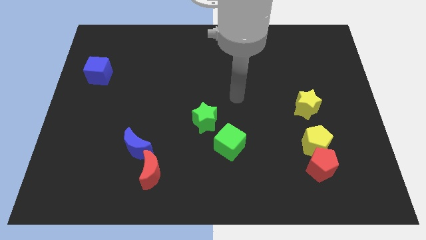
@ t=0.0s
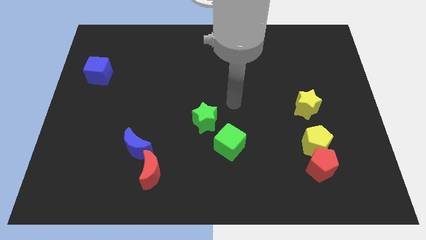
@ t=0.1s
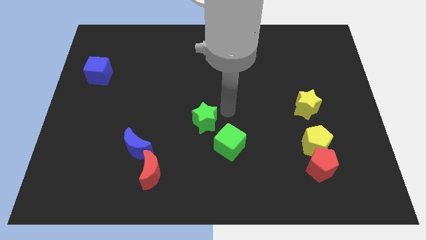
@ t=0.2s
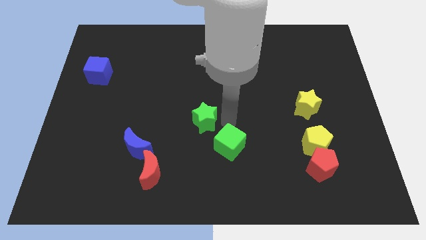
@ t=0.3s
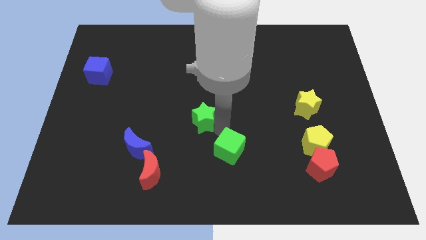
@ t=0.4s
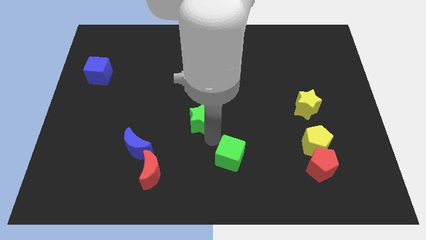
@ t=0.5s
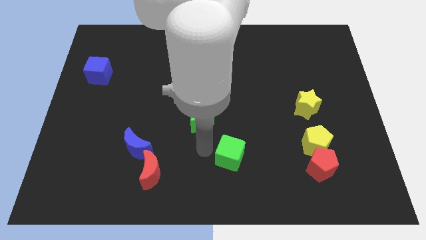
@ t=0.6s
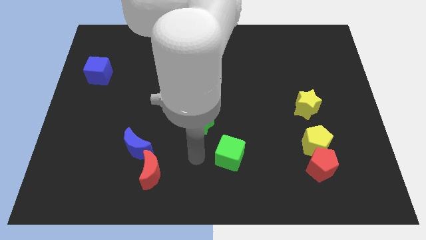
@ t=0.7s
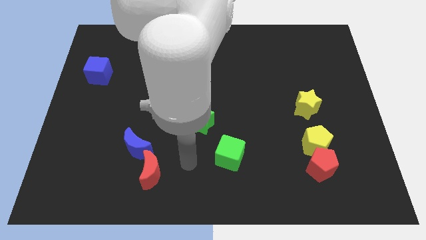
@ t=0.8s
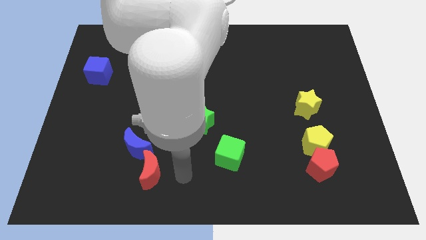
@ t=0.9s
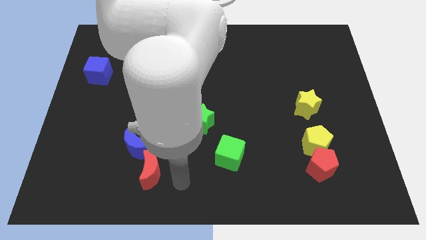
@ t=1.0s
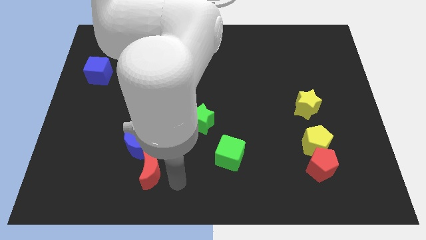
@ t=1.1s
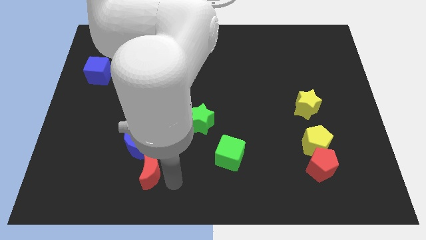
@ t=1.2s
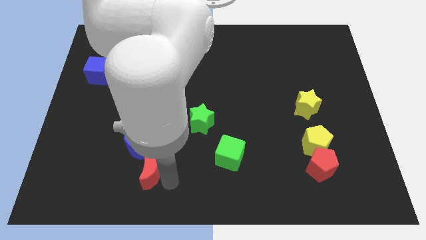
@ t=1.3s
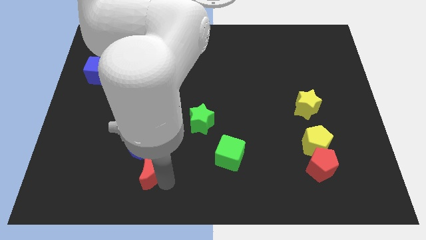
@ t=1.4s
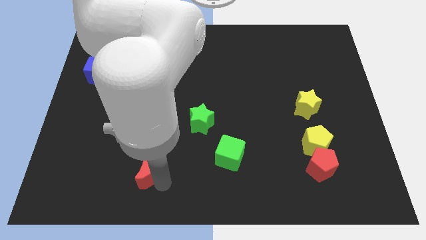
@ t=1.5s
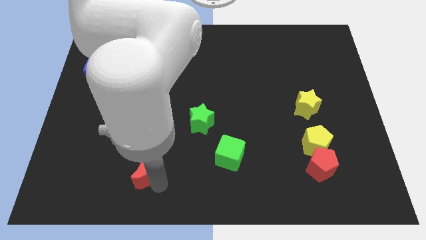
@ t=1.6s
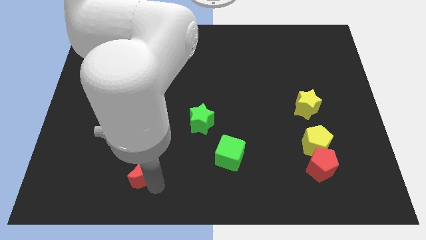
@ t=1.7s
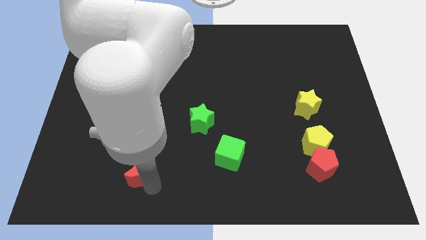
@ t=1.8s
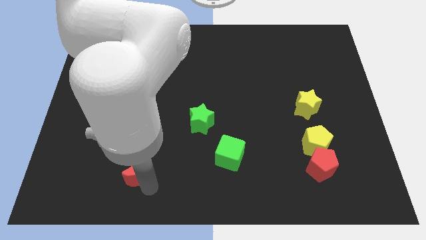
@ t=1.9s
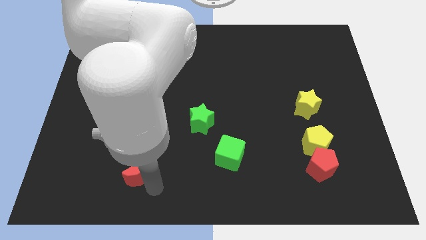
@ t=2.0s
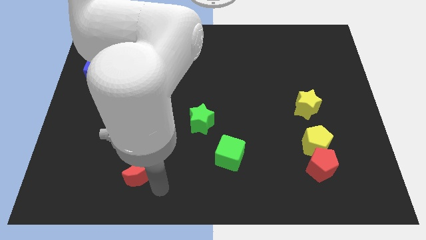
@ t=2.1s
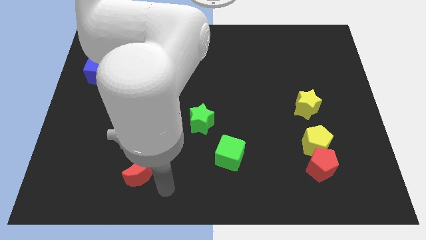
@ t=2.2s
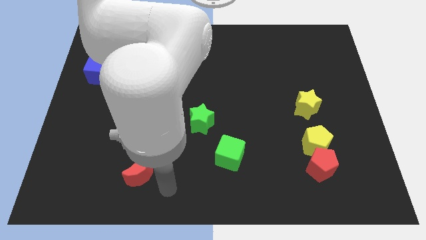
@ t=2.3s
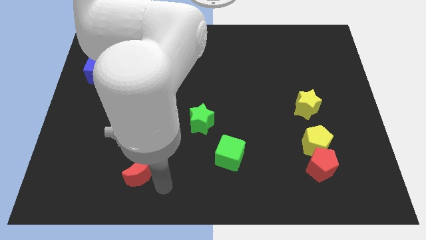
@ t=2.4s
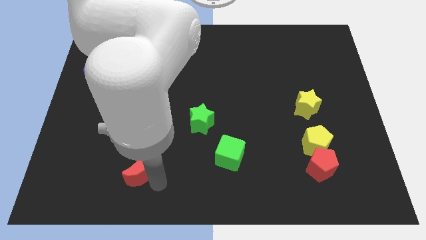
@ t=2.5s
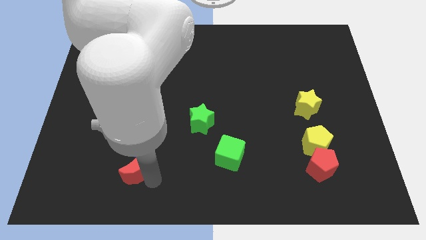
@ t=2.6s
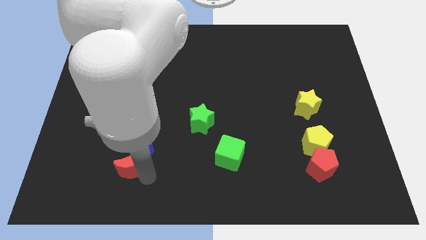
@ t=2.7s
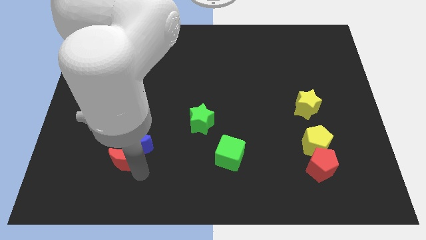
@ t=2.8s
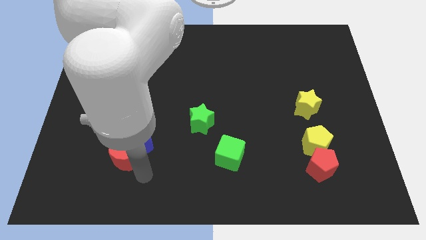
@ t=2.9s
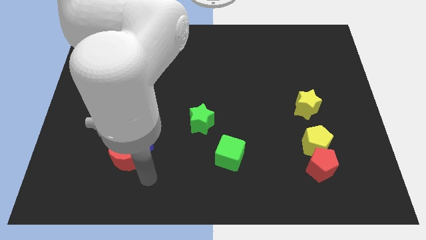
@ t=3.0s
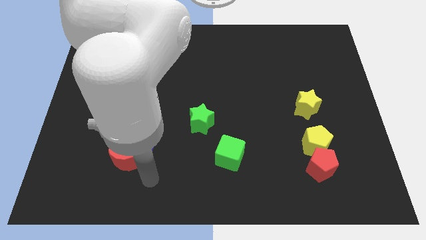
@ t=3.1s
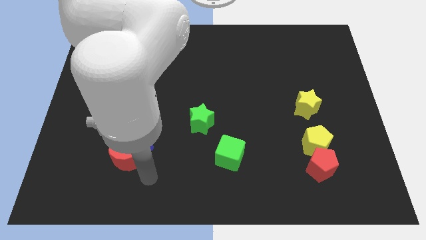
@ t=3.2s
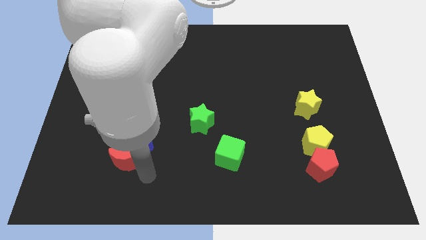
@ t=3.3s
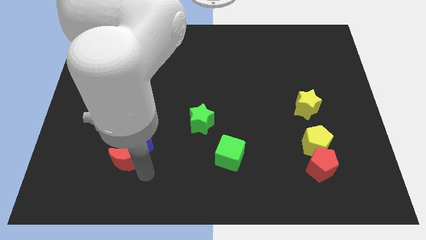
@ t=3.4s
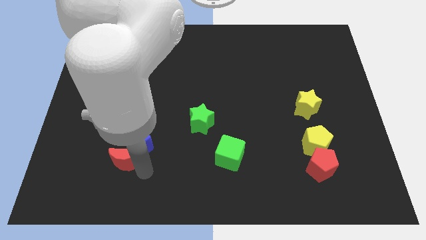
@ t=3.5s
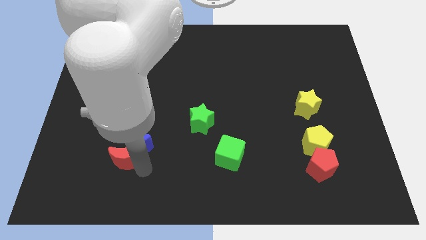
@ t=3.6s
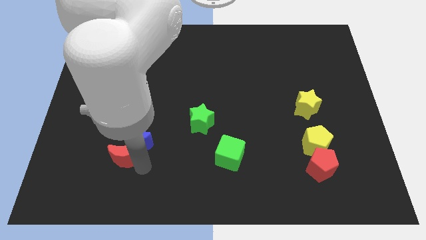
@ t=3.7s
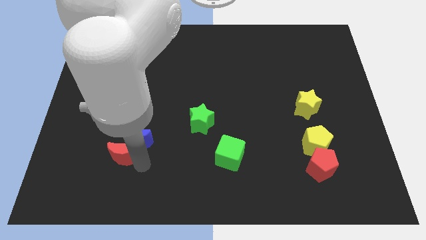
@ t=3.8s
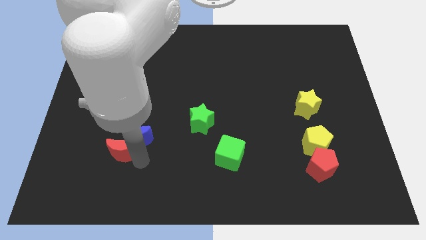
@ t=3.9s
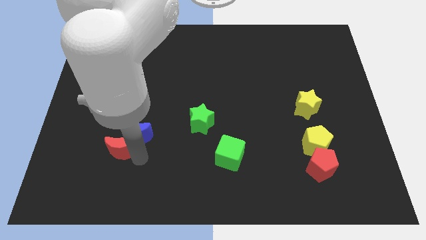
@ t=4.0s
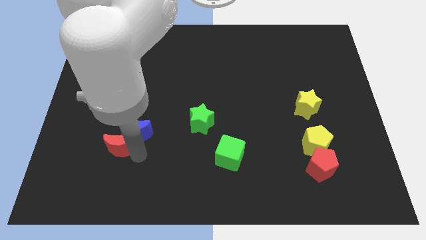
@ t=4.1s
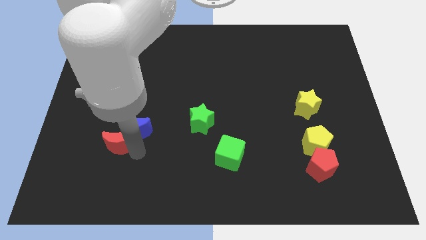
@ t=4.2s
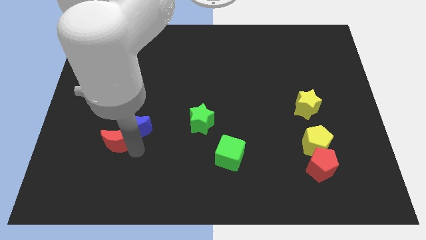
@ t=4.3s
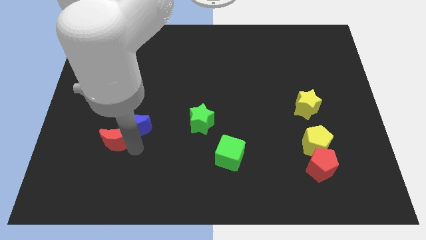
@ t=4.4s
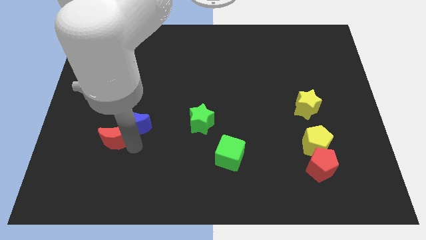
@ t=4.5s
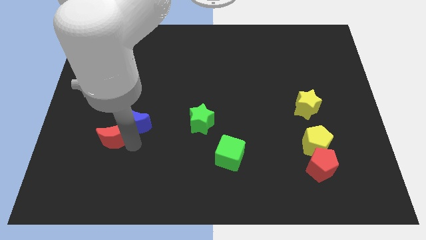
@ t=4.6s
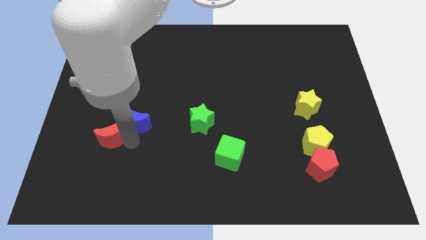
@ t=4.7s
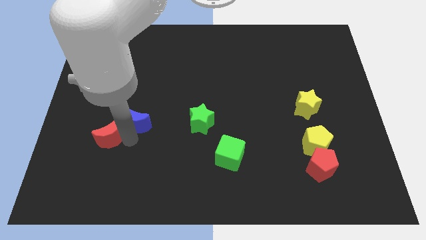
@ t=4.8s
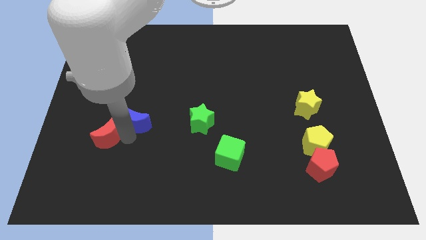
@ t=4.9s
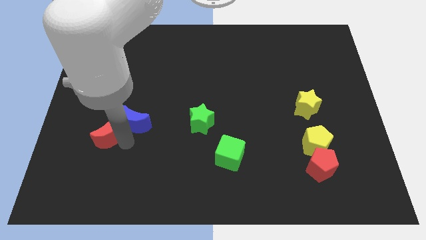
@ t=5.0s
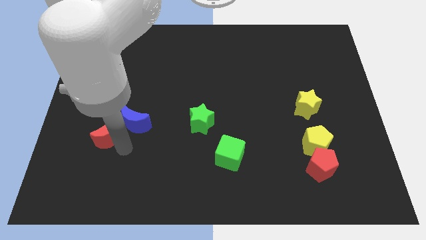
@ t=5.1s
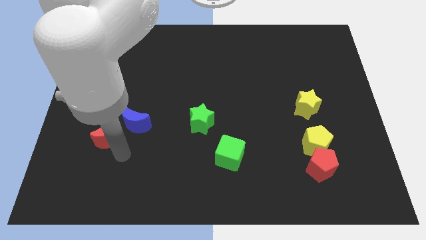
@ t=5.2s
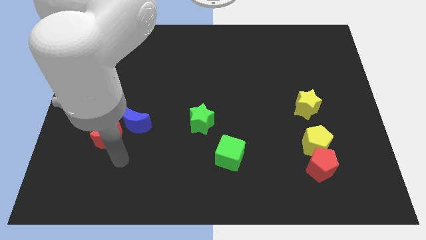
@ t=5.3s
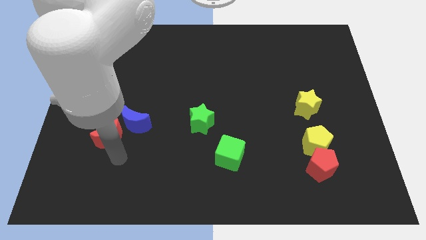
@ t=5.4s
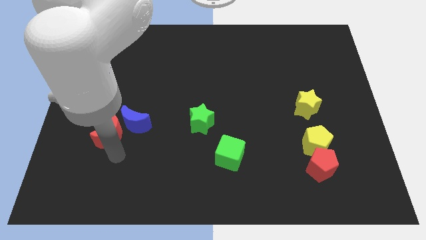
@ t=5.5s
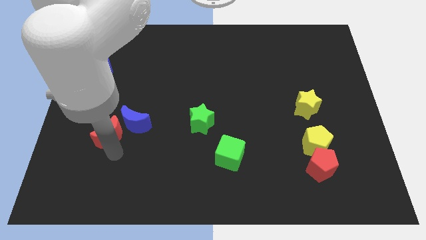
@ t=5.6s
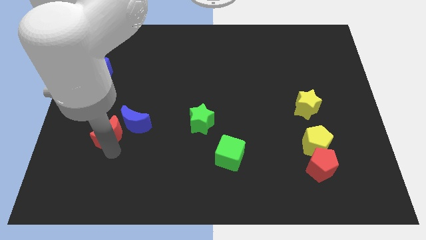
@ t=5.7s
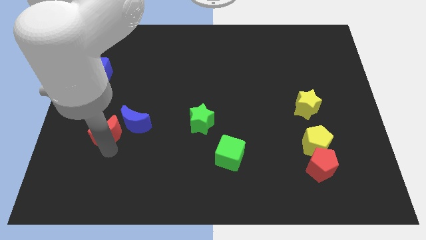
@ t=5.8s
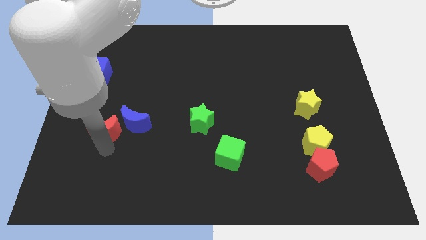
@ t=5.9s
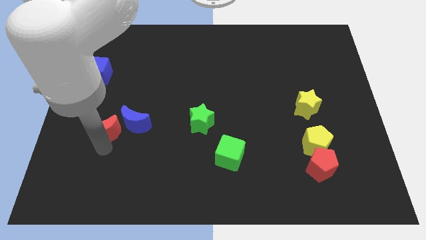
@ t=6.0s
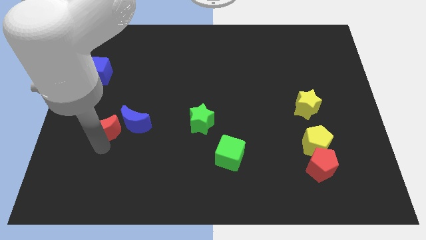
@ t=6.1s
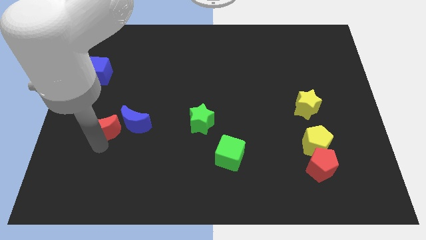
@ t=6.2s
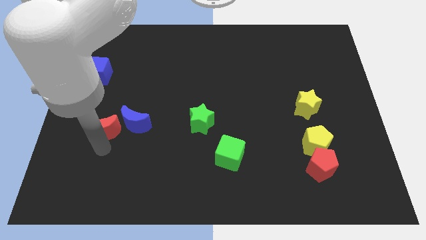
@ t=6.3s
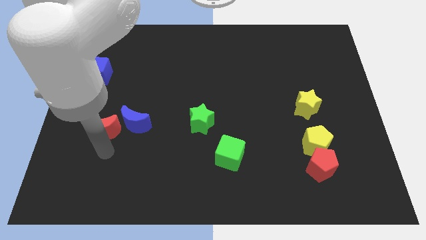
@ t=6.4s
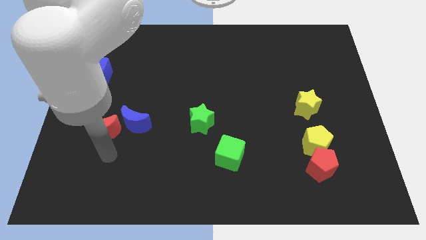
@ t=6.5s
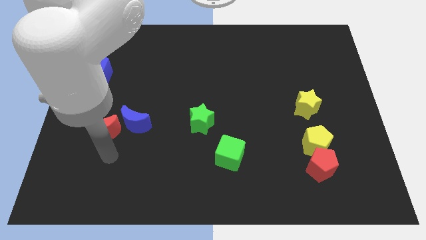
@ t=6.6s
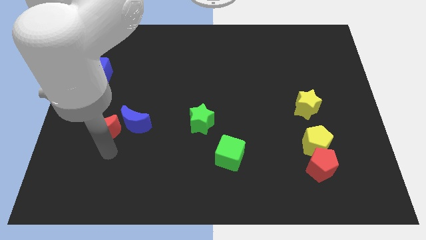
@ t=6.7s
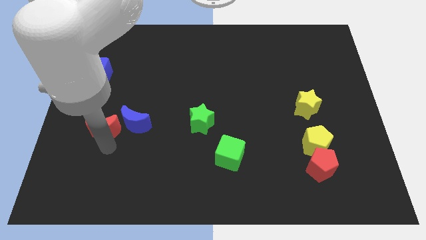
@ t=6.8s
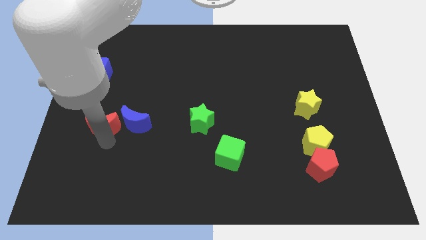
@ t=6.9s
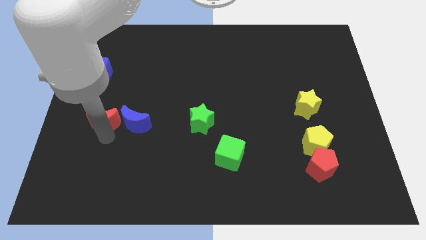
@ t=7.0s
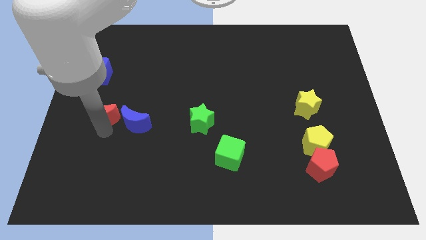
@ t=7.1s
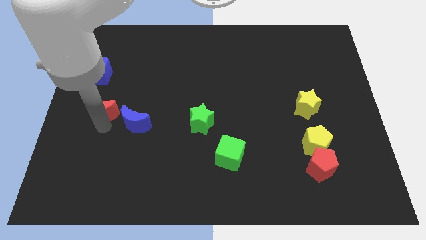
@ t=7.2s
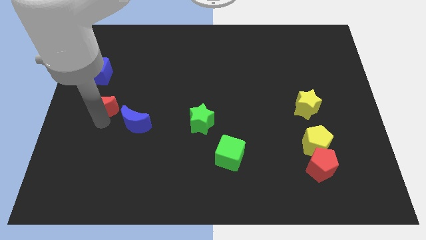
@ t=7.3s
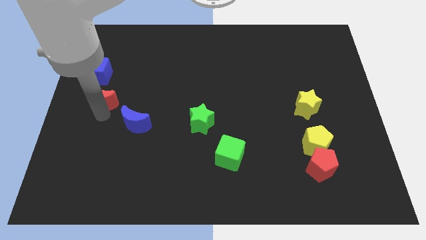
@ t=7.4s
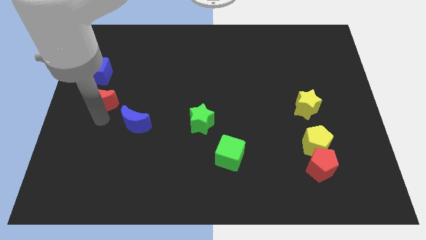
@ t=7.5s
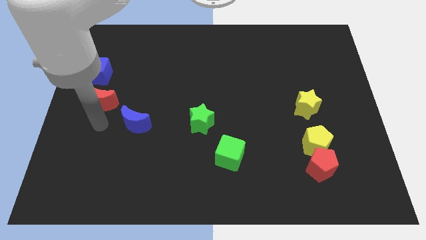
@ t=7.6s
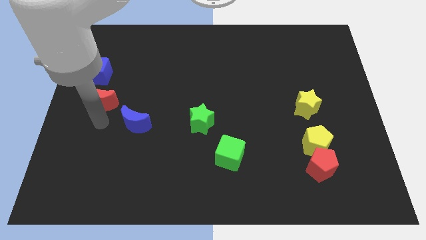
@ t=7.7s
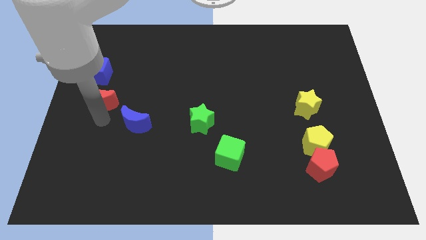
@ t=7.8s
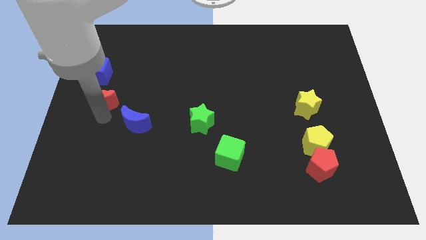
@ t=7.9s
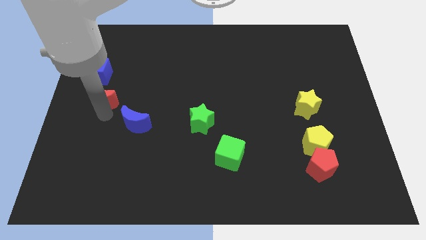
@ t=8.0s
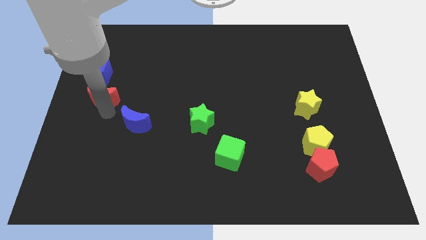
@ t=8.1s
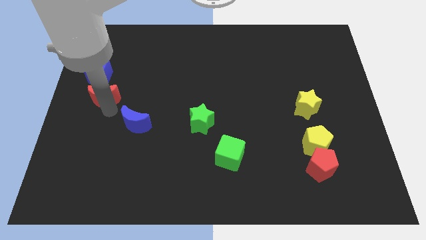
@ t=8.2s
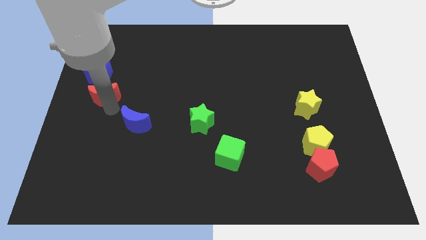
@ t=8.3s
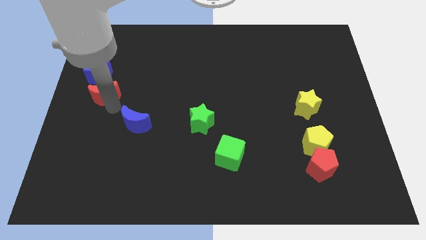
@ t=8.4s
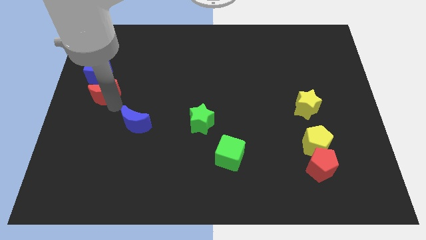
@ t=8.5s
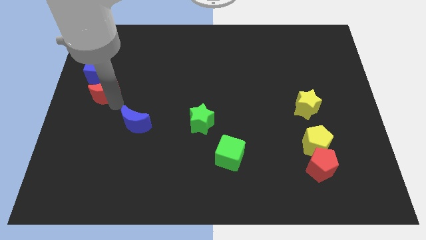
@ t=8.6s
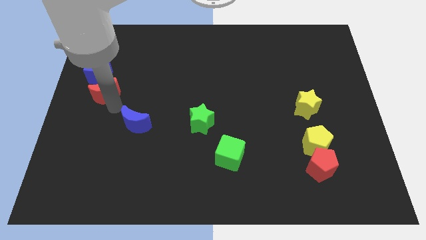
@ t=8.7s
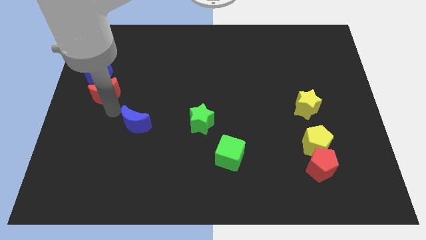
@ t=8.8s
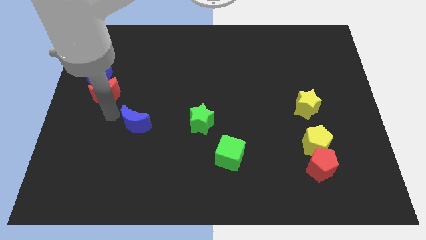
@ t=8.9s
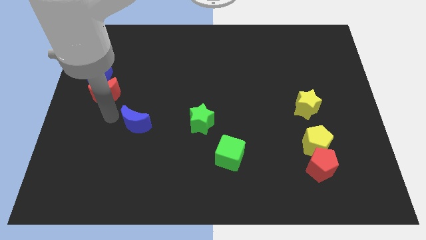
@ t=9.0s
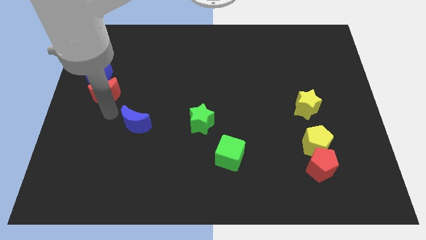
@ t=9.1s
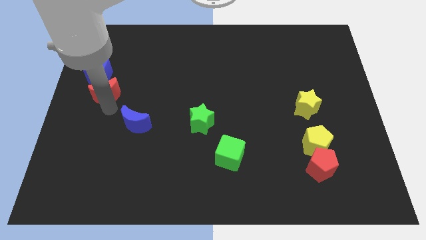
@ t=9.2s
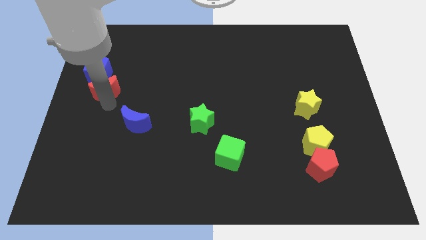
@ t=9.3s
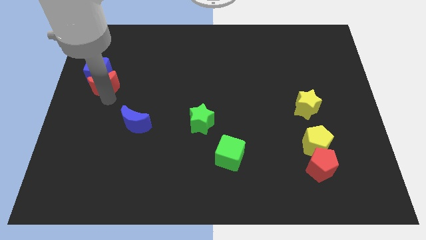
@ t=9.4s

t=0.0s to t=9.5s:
push the red moon to the blue cube
